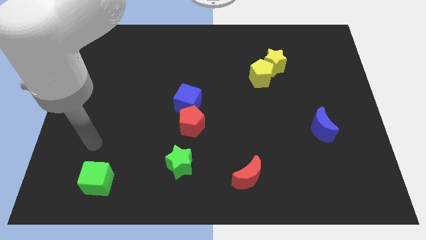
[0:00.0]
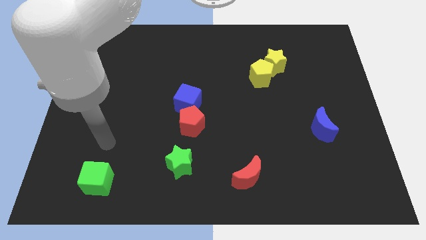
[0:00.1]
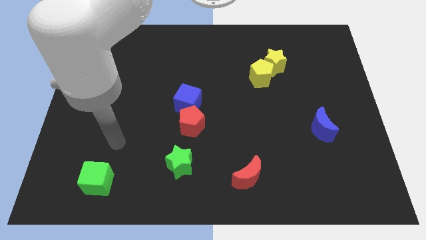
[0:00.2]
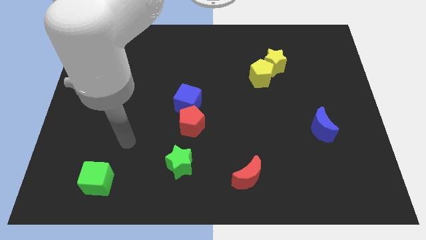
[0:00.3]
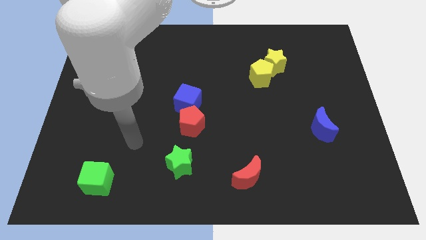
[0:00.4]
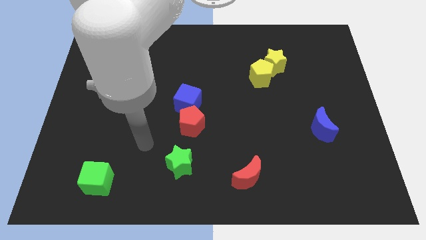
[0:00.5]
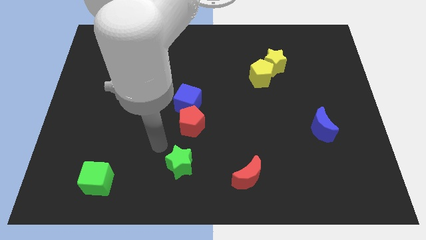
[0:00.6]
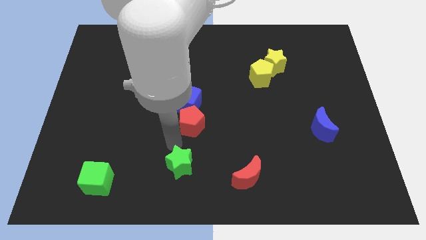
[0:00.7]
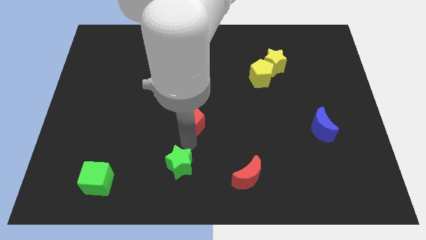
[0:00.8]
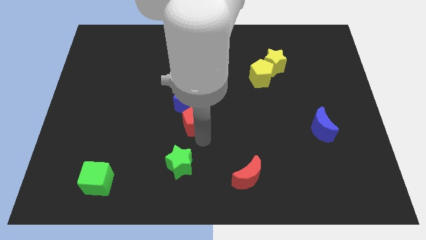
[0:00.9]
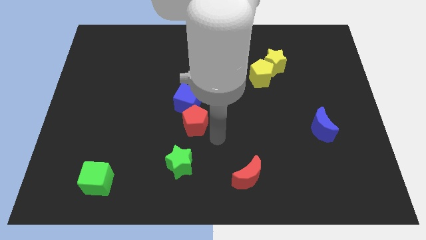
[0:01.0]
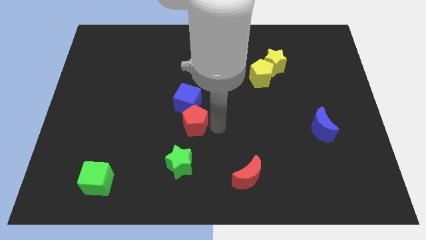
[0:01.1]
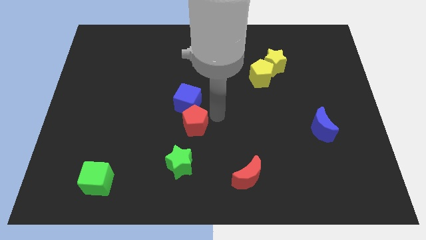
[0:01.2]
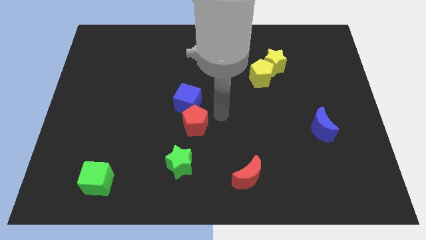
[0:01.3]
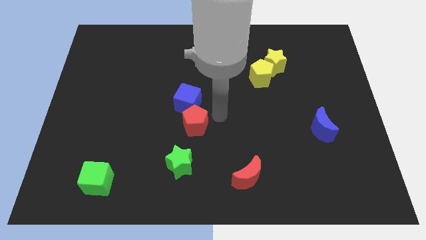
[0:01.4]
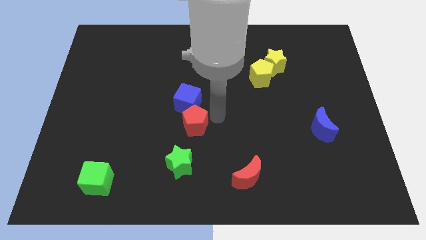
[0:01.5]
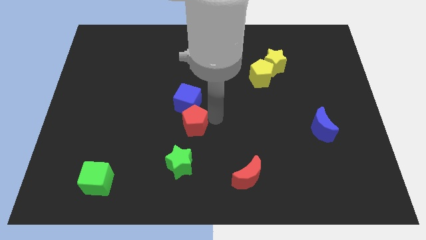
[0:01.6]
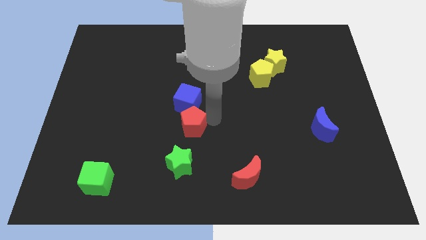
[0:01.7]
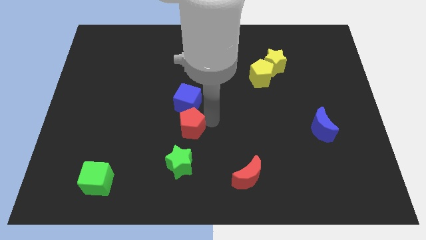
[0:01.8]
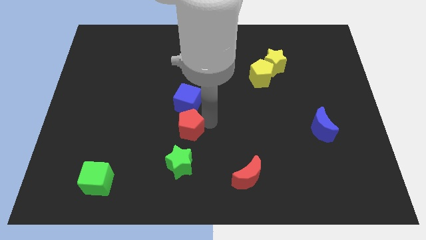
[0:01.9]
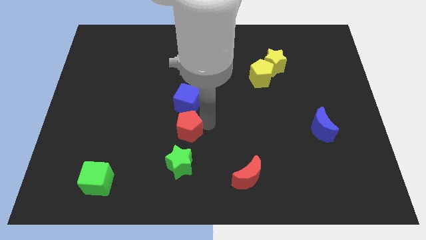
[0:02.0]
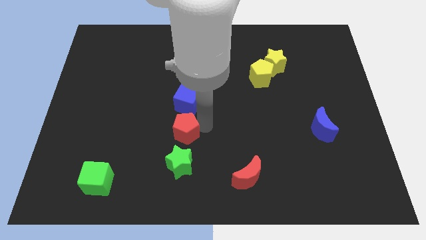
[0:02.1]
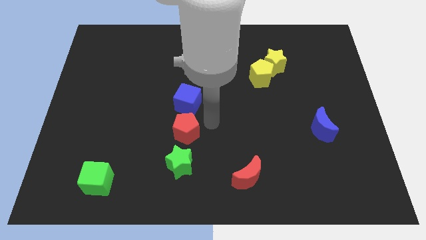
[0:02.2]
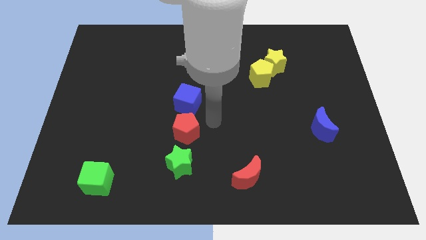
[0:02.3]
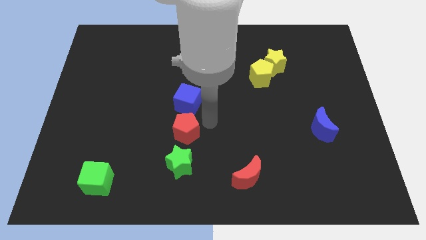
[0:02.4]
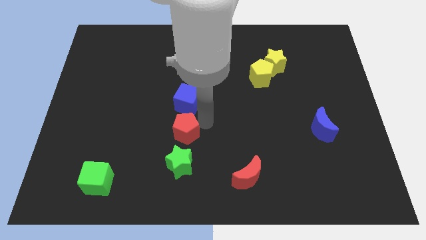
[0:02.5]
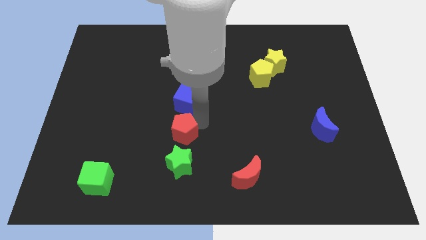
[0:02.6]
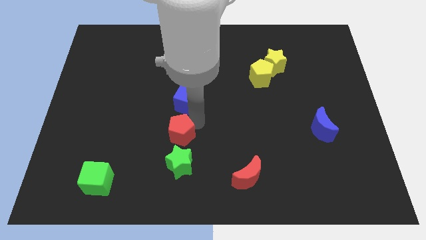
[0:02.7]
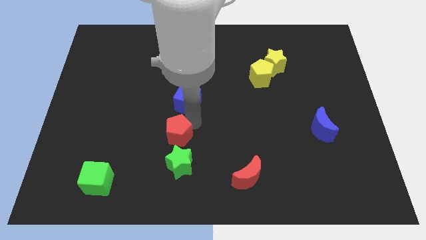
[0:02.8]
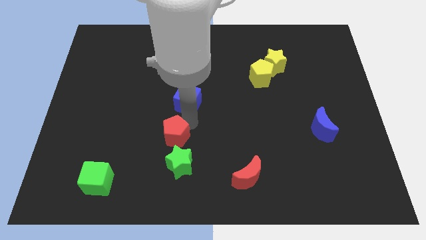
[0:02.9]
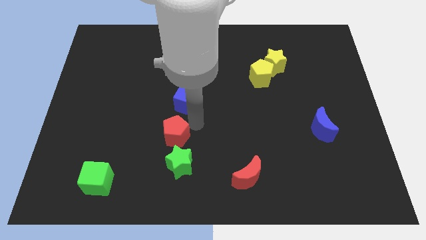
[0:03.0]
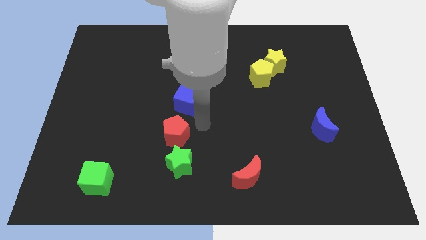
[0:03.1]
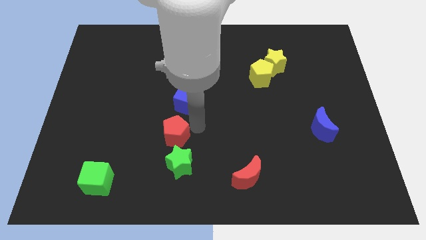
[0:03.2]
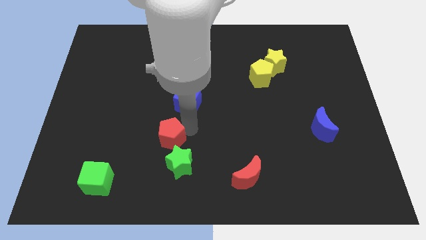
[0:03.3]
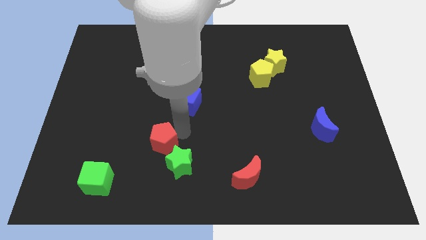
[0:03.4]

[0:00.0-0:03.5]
move the red pentagon down and left a little

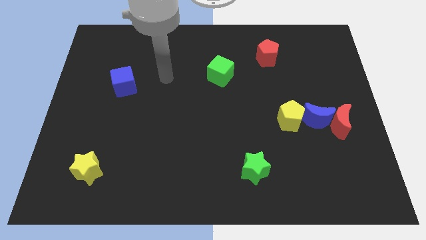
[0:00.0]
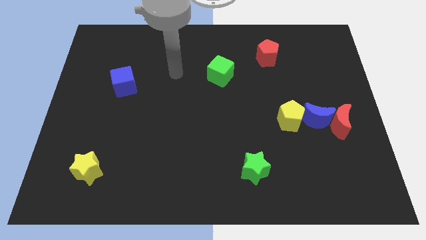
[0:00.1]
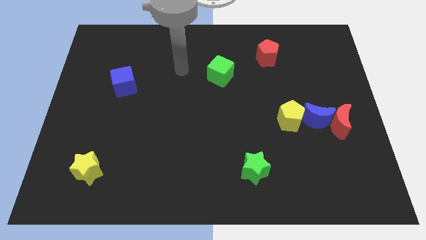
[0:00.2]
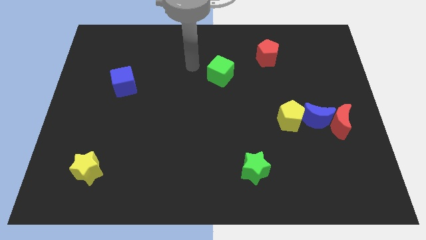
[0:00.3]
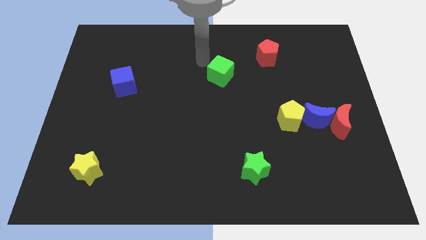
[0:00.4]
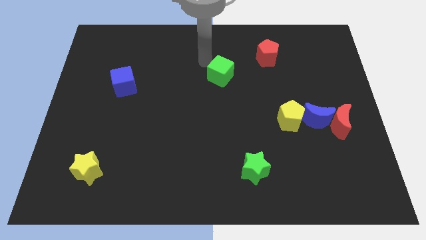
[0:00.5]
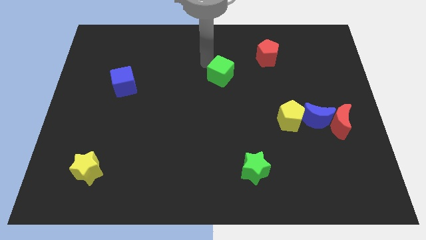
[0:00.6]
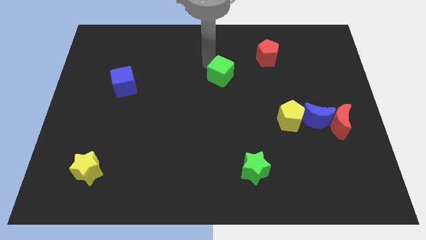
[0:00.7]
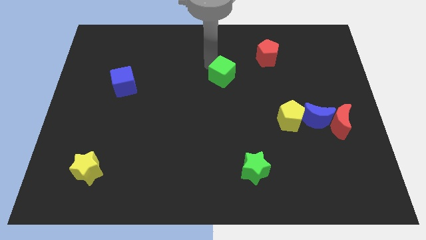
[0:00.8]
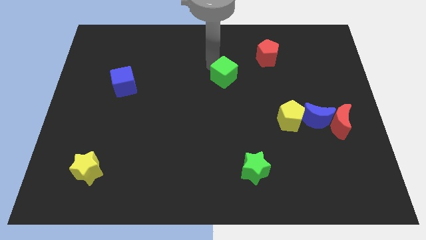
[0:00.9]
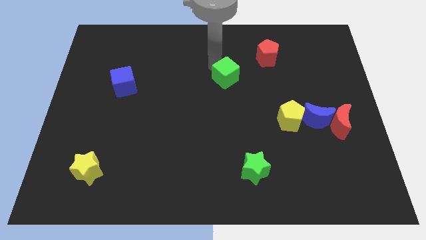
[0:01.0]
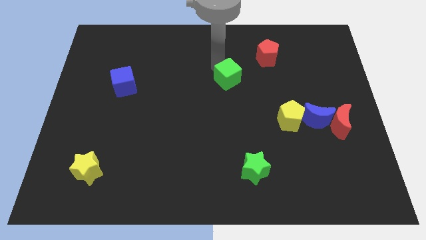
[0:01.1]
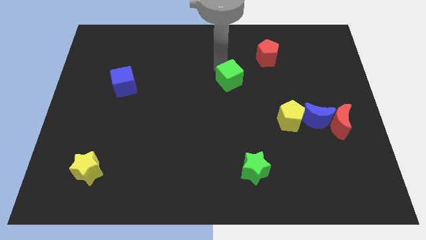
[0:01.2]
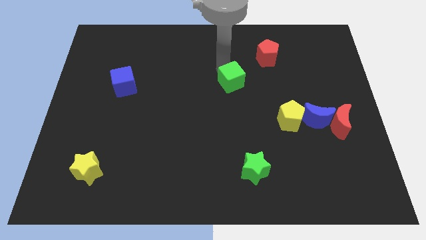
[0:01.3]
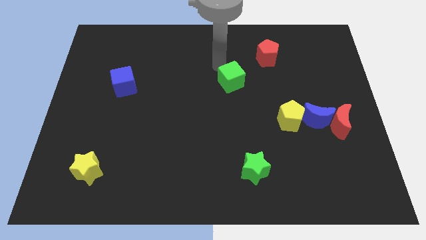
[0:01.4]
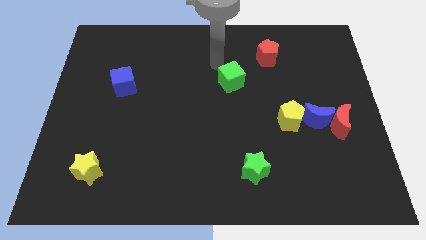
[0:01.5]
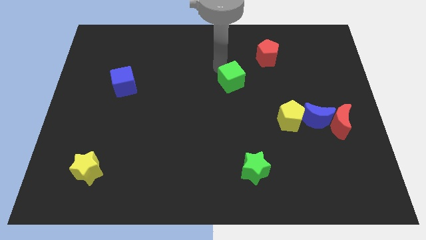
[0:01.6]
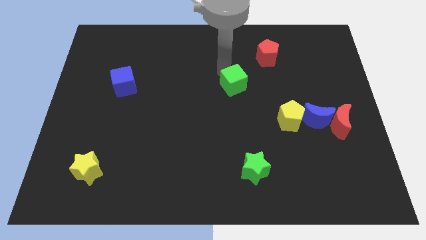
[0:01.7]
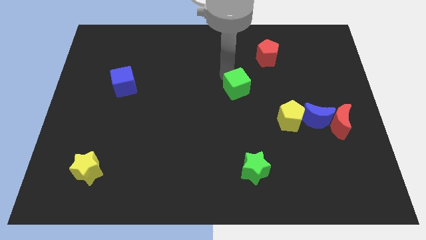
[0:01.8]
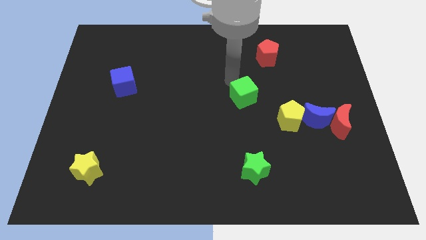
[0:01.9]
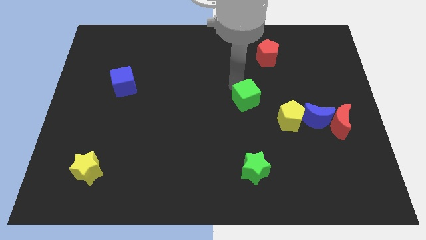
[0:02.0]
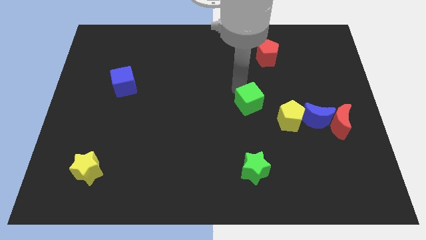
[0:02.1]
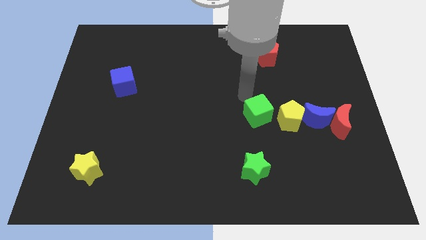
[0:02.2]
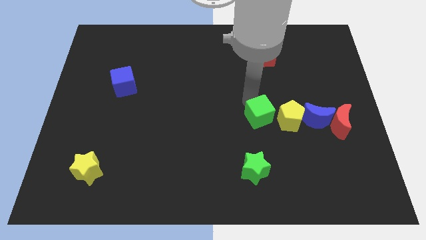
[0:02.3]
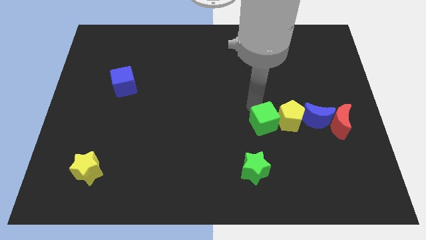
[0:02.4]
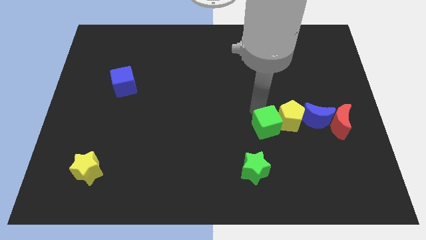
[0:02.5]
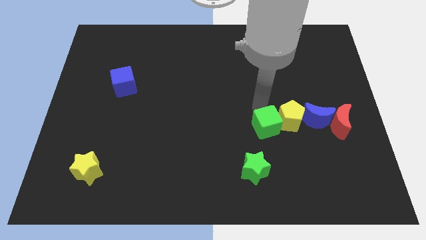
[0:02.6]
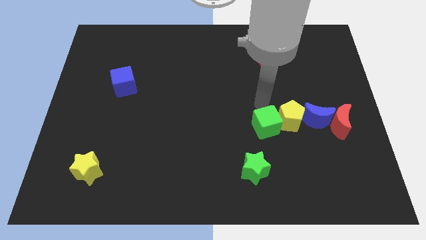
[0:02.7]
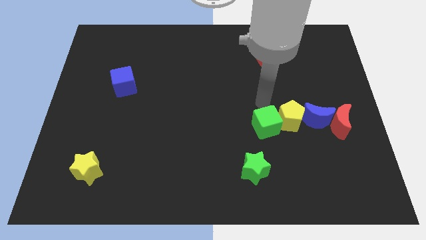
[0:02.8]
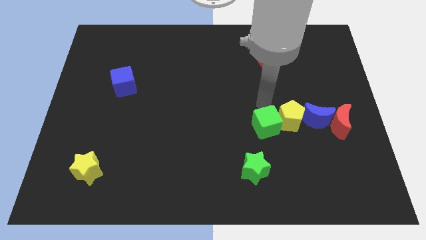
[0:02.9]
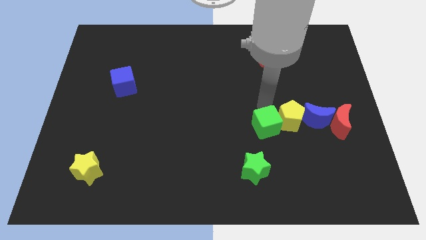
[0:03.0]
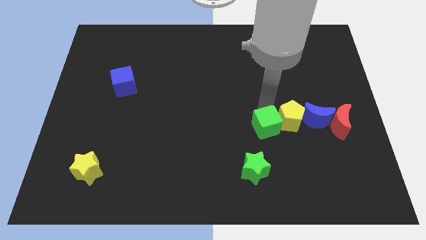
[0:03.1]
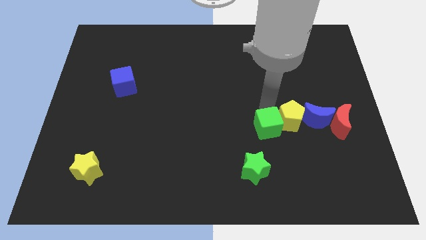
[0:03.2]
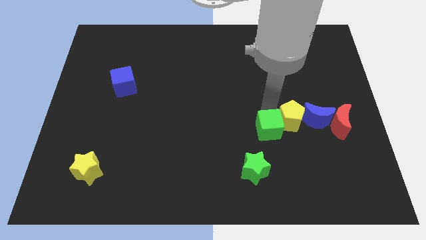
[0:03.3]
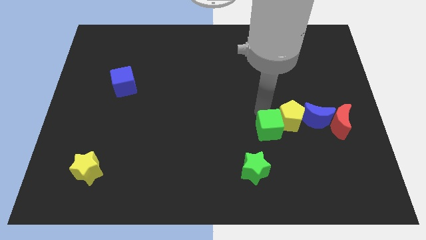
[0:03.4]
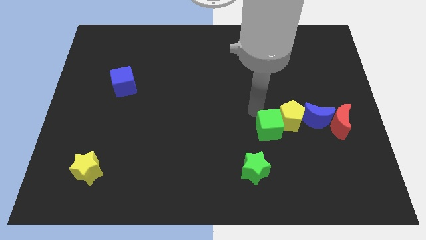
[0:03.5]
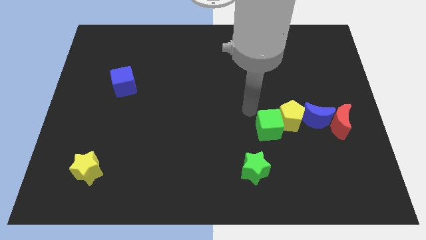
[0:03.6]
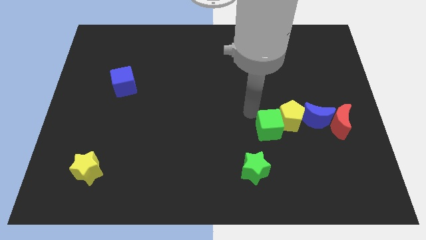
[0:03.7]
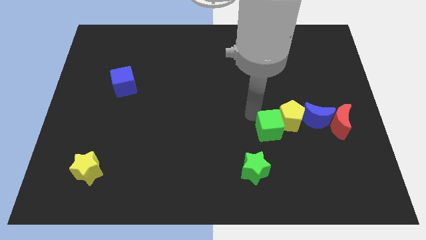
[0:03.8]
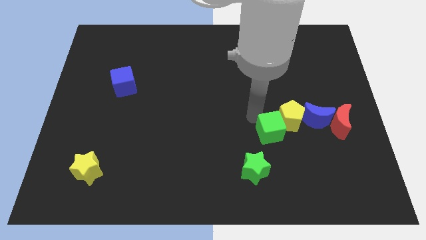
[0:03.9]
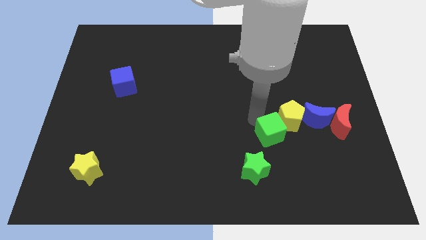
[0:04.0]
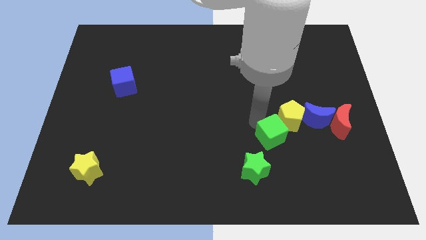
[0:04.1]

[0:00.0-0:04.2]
slide the green cube diagonally downwards and to the right

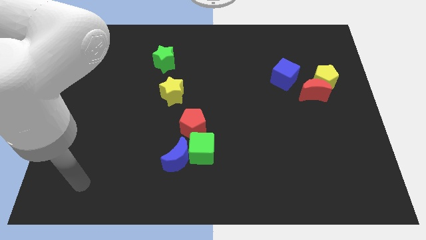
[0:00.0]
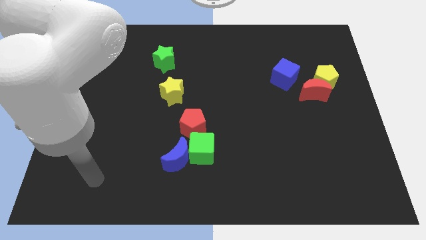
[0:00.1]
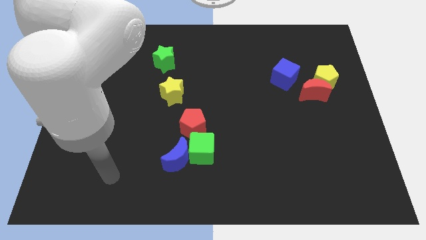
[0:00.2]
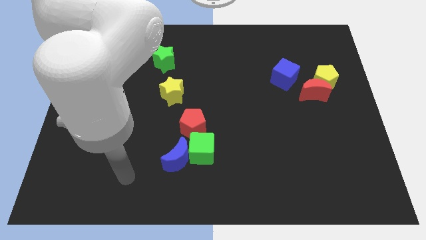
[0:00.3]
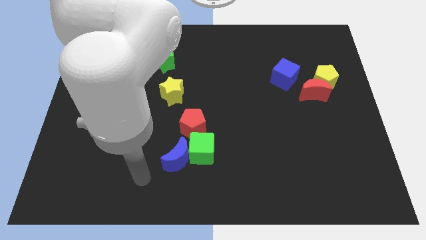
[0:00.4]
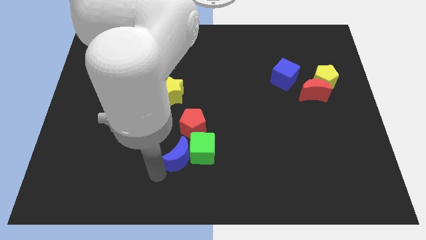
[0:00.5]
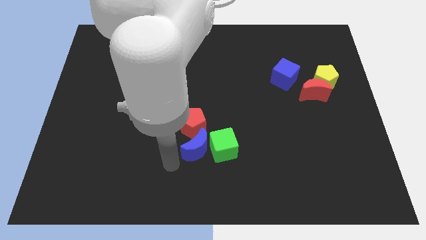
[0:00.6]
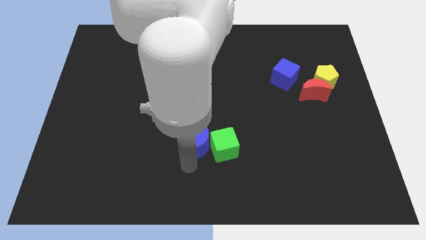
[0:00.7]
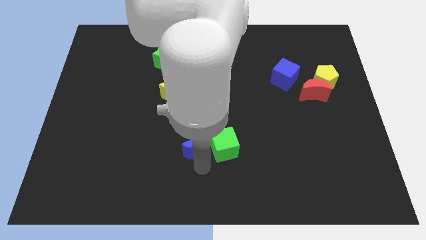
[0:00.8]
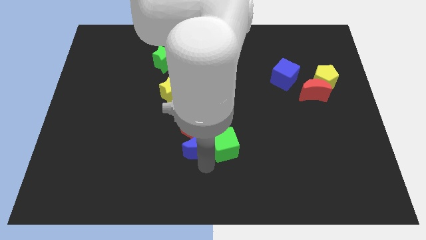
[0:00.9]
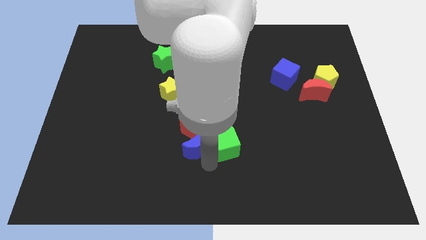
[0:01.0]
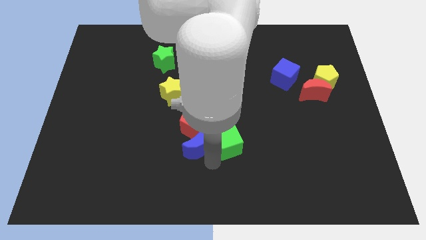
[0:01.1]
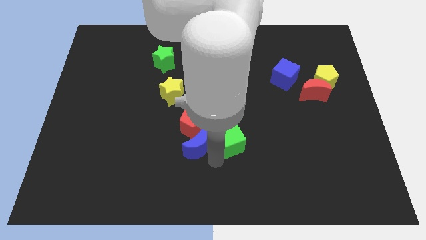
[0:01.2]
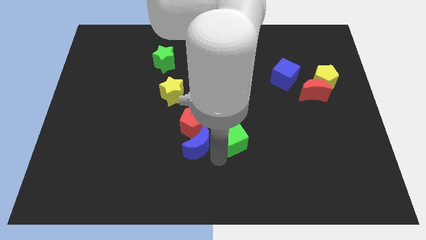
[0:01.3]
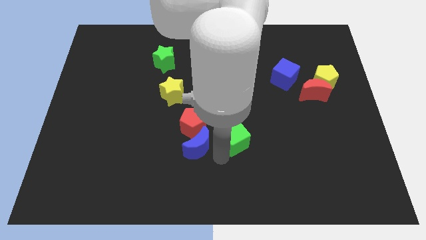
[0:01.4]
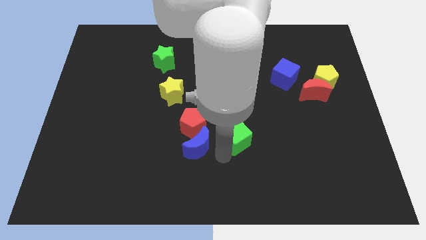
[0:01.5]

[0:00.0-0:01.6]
slightly slide the green cube up and to the right
